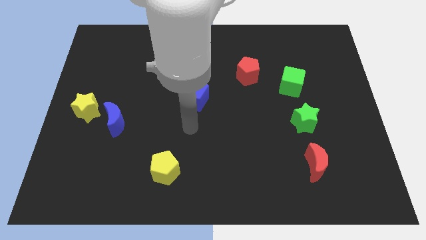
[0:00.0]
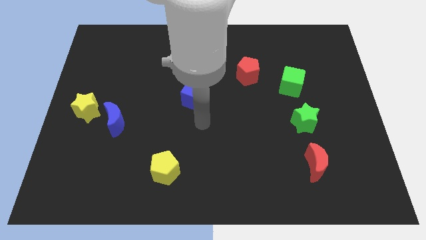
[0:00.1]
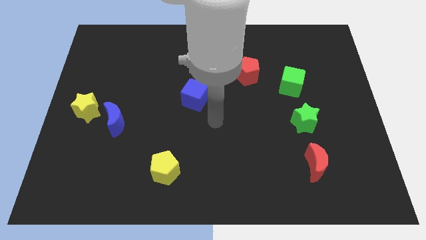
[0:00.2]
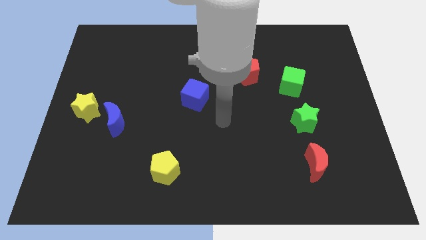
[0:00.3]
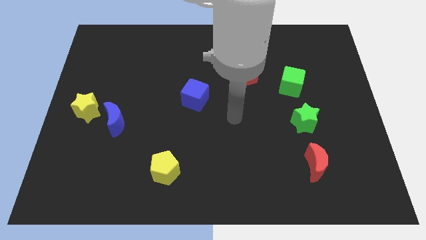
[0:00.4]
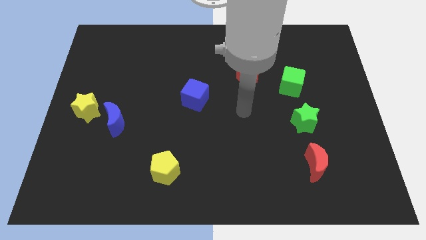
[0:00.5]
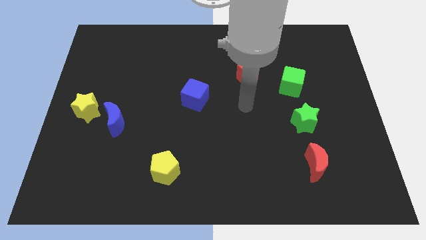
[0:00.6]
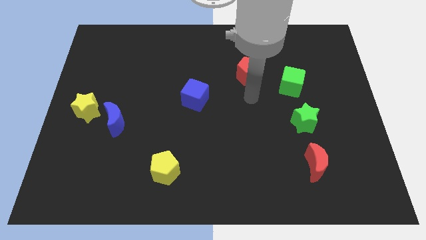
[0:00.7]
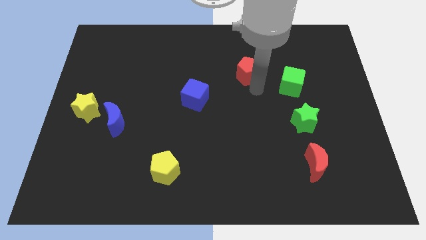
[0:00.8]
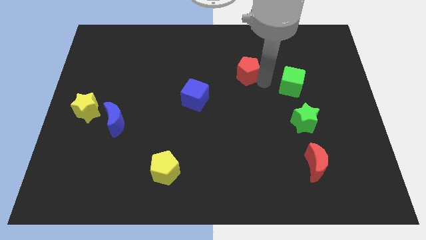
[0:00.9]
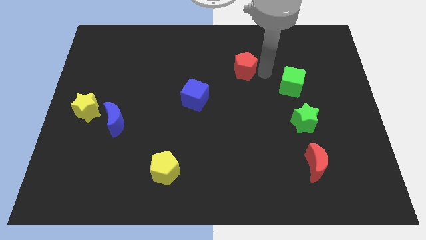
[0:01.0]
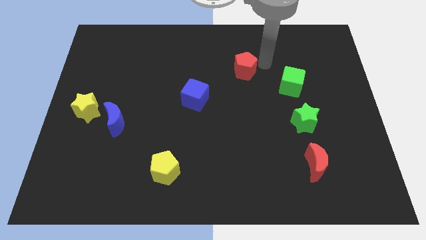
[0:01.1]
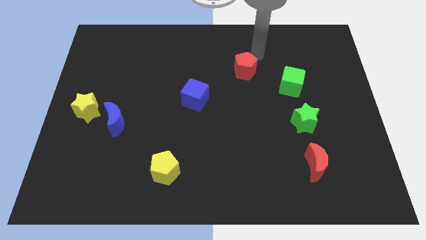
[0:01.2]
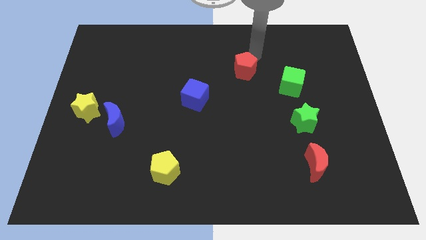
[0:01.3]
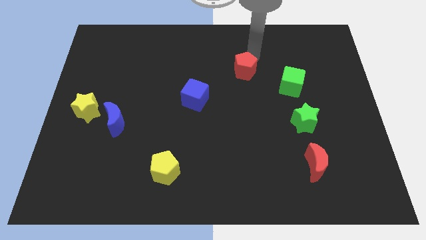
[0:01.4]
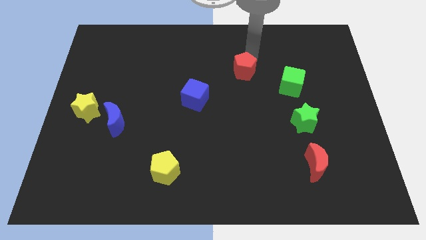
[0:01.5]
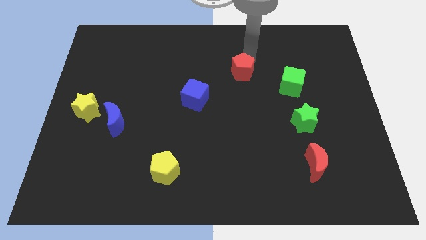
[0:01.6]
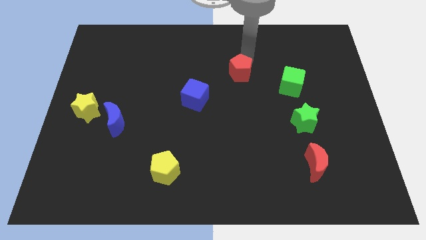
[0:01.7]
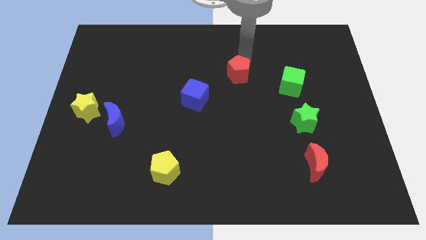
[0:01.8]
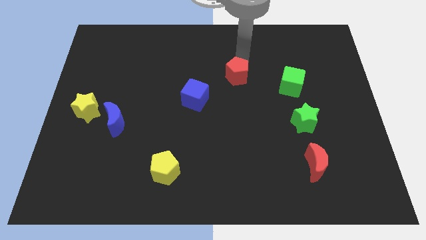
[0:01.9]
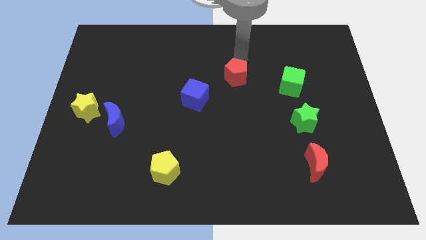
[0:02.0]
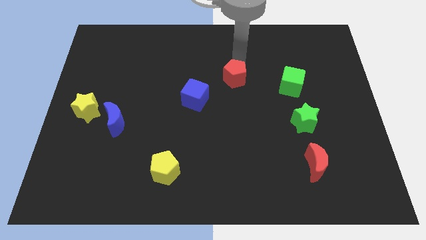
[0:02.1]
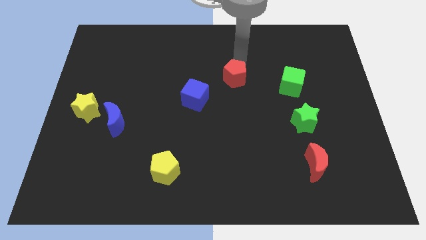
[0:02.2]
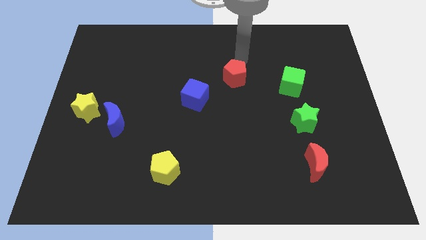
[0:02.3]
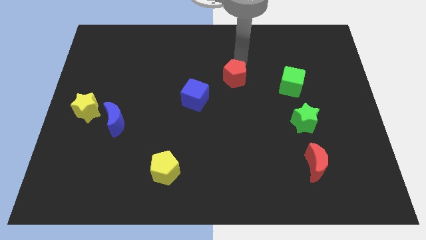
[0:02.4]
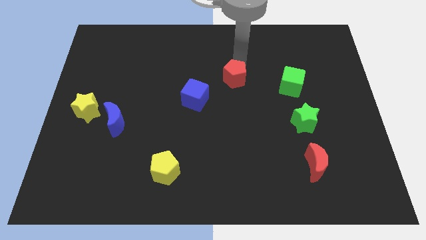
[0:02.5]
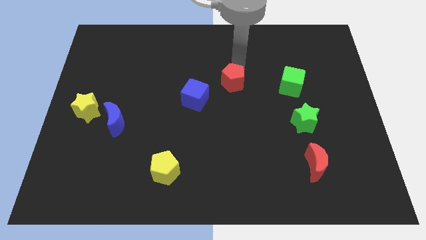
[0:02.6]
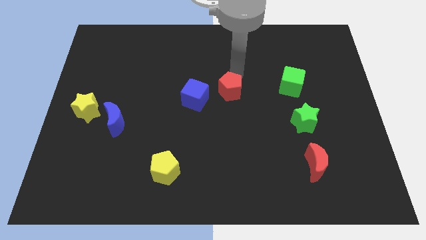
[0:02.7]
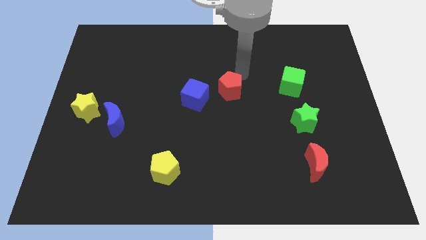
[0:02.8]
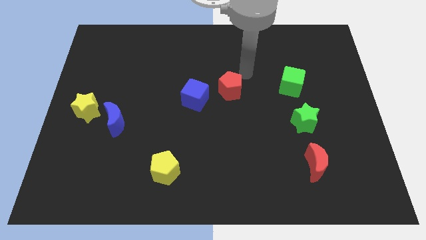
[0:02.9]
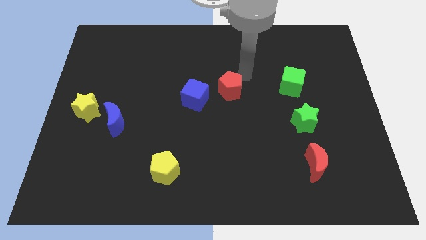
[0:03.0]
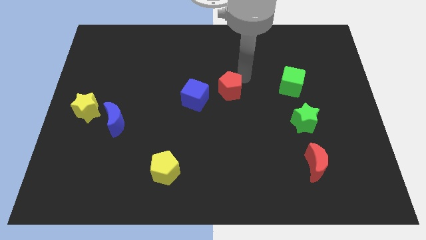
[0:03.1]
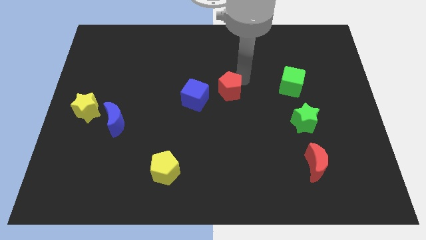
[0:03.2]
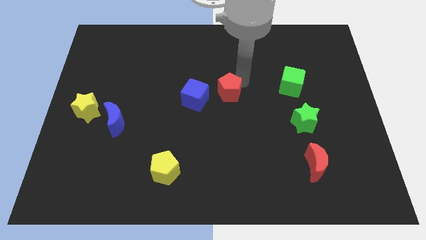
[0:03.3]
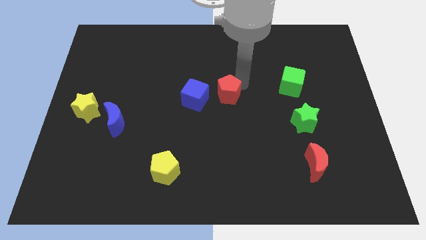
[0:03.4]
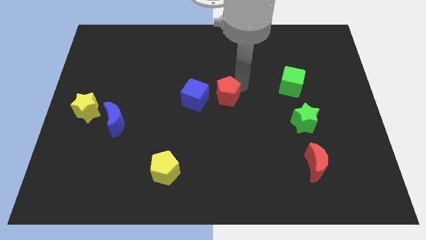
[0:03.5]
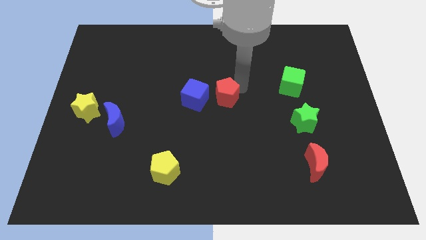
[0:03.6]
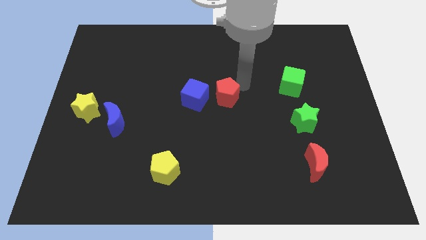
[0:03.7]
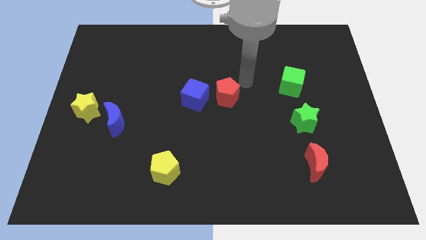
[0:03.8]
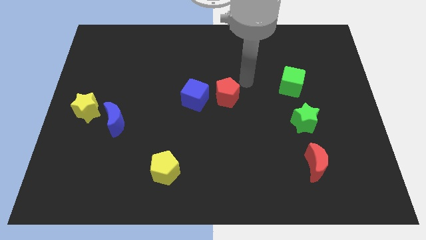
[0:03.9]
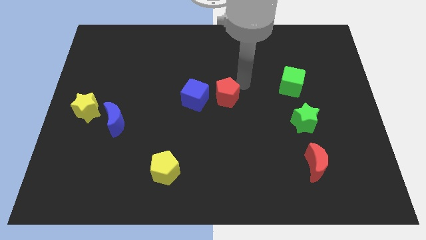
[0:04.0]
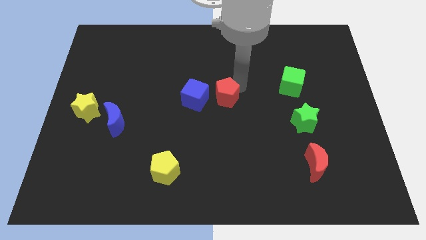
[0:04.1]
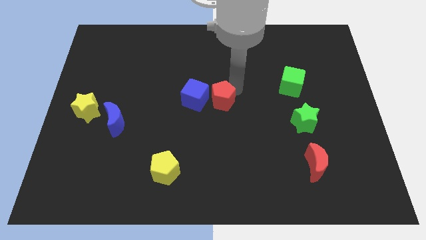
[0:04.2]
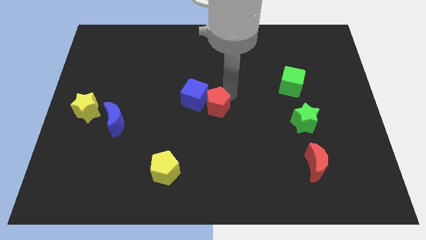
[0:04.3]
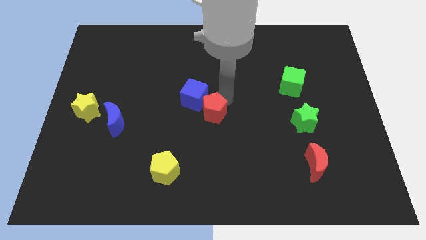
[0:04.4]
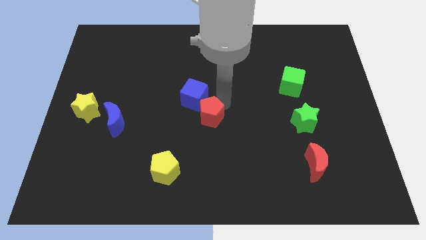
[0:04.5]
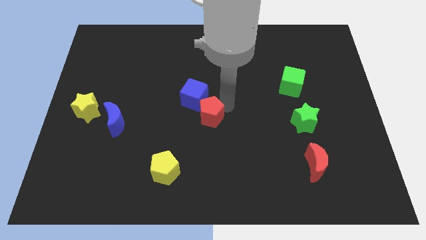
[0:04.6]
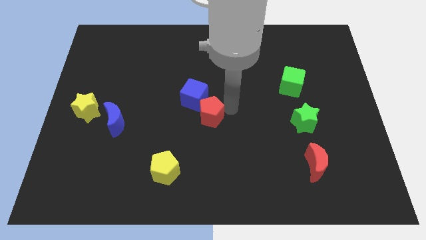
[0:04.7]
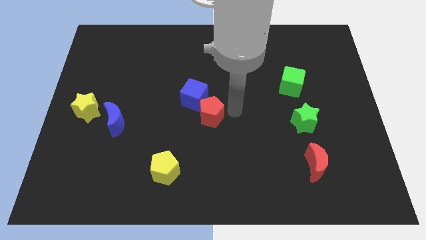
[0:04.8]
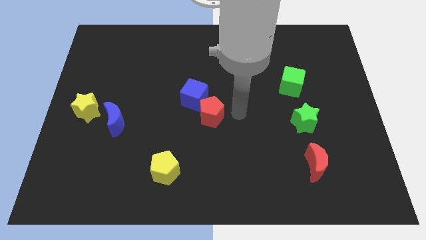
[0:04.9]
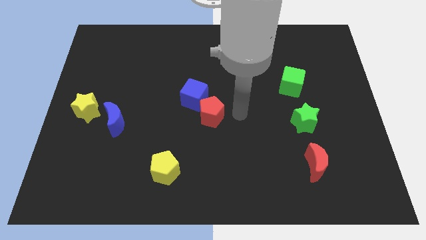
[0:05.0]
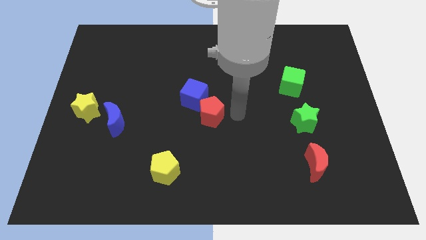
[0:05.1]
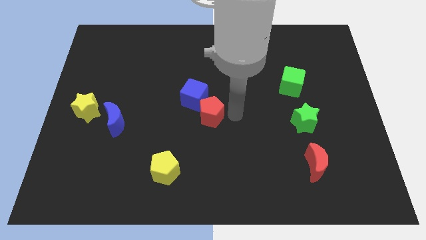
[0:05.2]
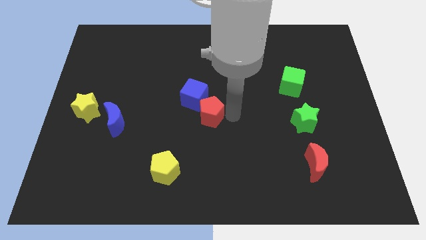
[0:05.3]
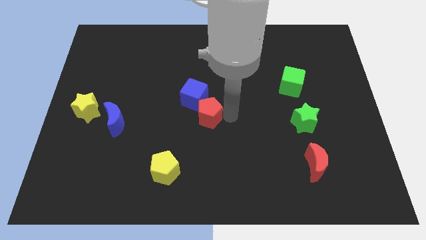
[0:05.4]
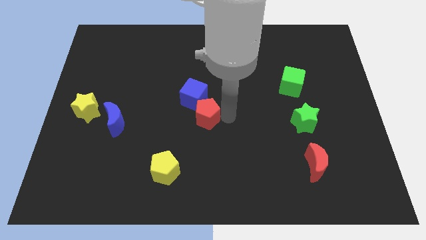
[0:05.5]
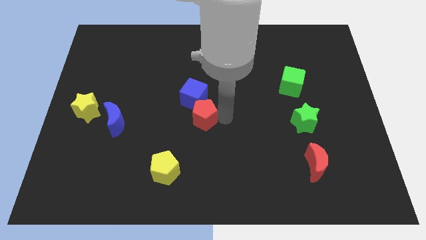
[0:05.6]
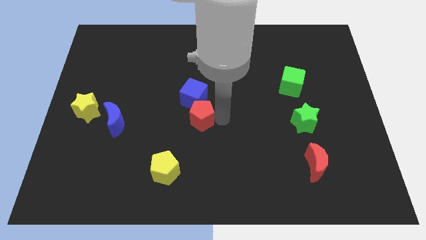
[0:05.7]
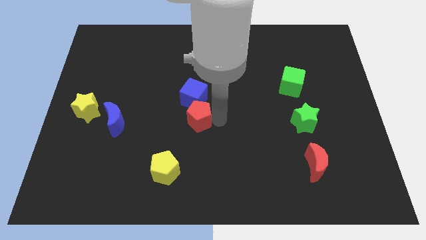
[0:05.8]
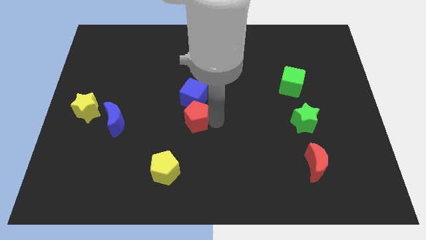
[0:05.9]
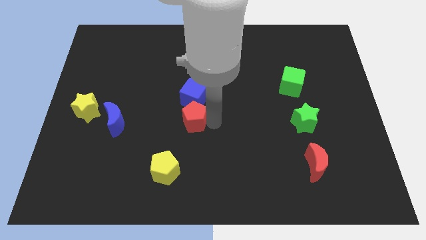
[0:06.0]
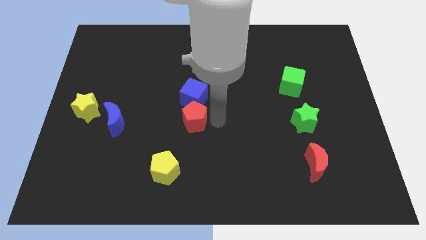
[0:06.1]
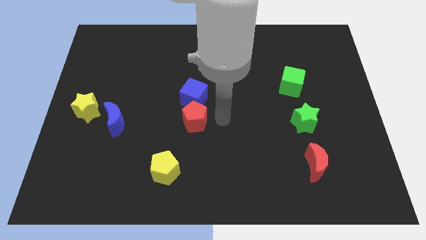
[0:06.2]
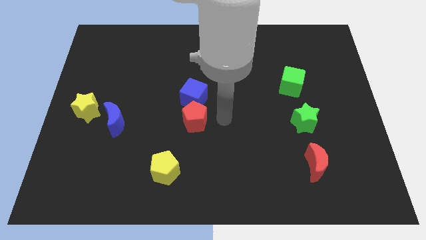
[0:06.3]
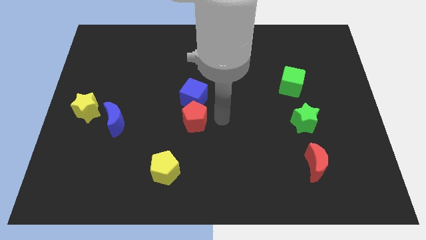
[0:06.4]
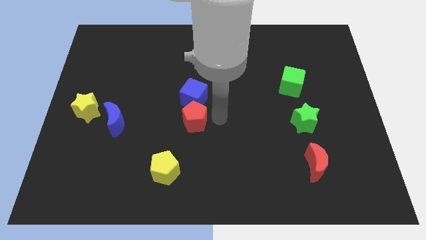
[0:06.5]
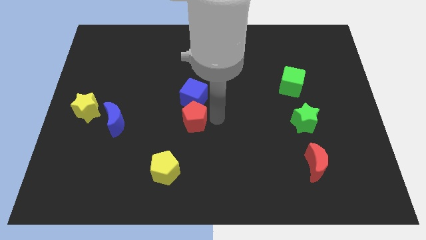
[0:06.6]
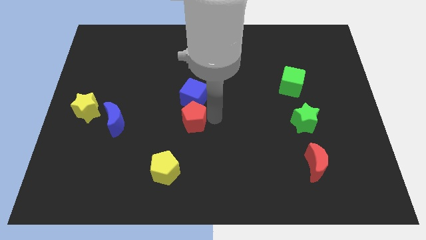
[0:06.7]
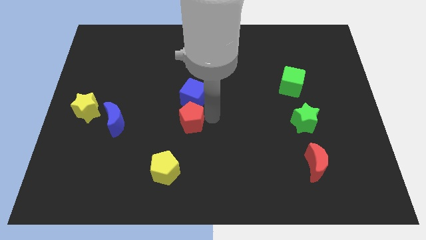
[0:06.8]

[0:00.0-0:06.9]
slide the red pentagon diagonally down and left

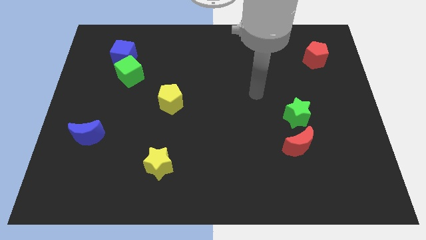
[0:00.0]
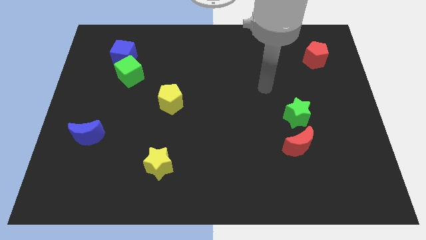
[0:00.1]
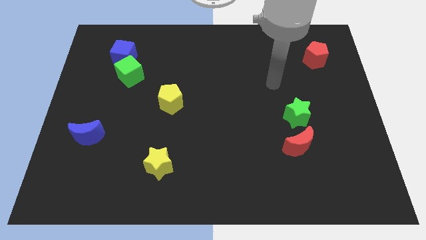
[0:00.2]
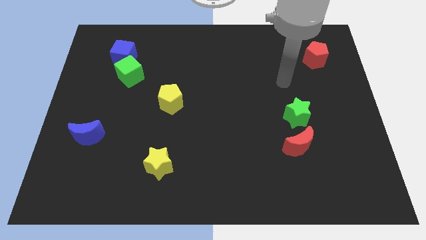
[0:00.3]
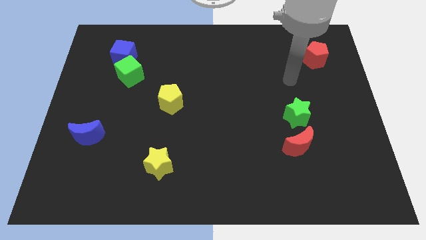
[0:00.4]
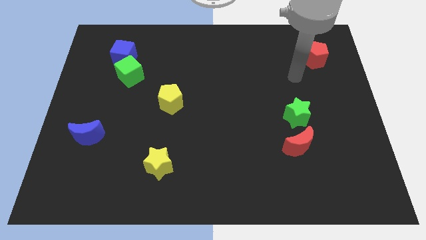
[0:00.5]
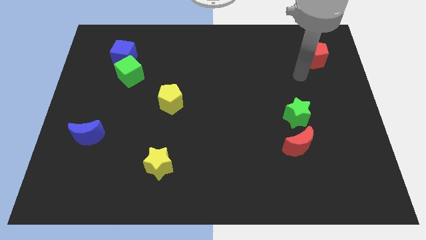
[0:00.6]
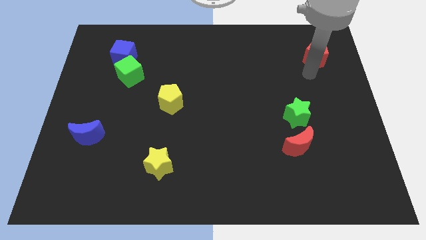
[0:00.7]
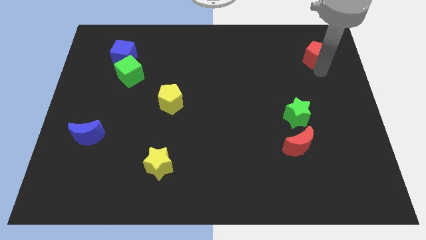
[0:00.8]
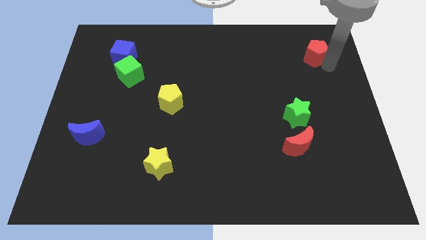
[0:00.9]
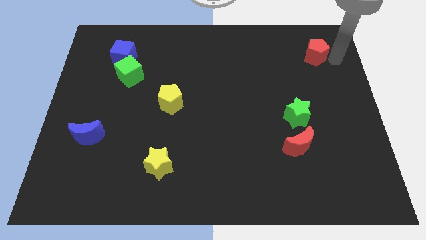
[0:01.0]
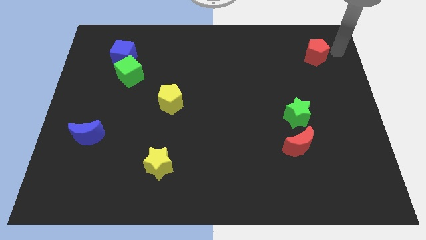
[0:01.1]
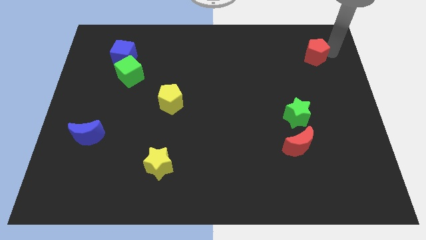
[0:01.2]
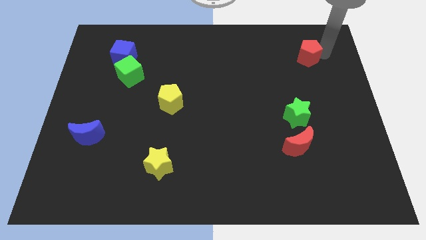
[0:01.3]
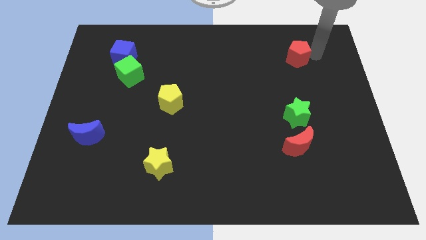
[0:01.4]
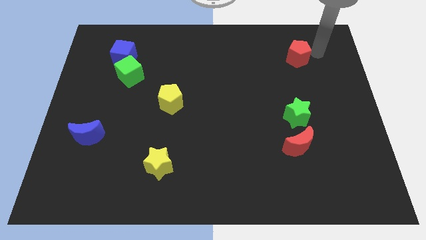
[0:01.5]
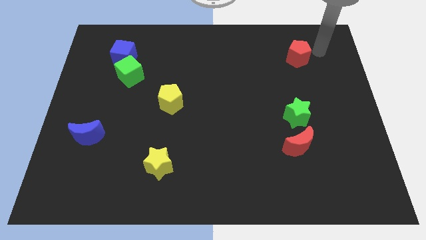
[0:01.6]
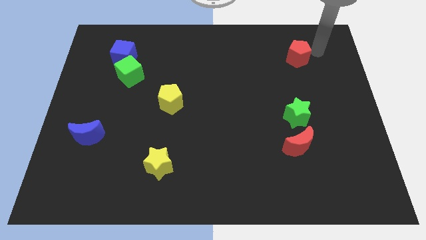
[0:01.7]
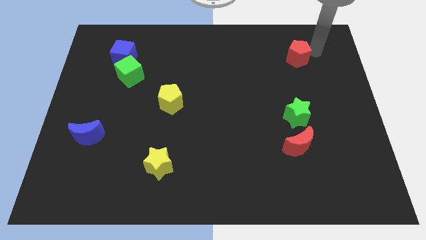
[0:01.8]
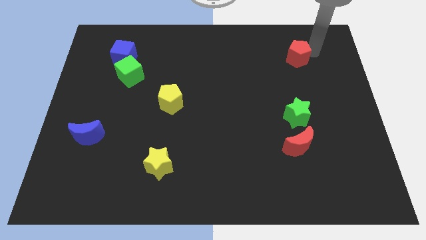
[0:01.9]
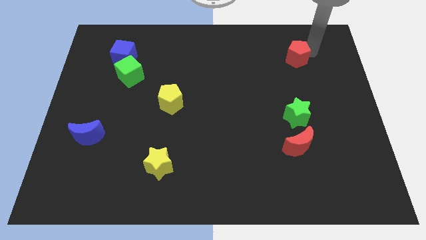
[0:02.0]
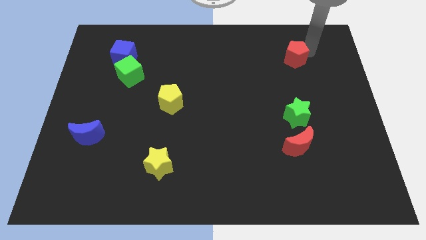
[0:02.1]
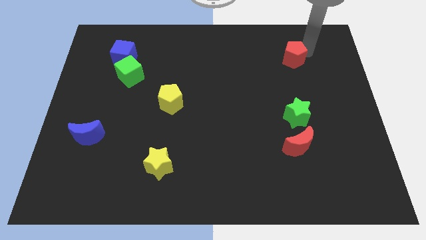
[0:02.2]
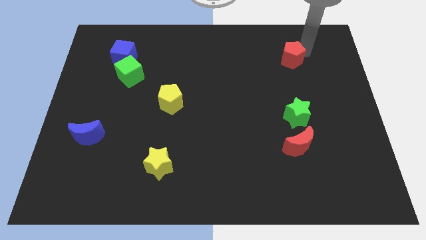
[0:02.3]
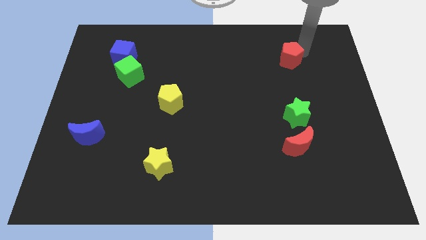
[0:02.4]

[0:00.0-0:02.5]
slide the red pentagon slightly left
